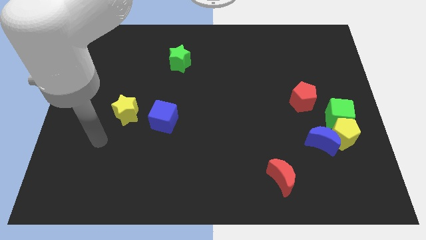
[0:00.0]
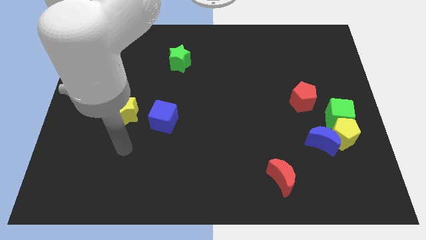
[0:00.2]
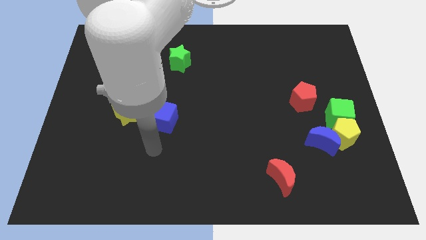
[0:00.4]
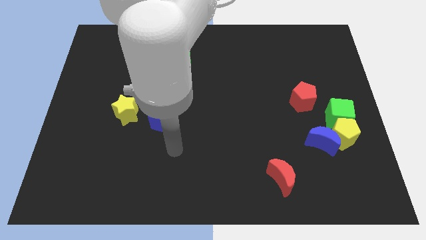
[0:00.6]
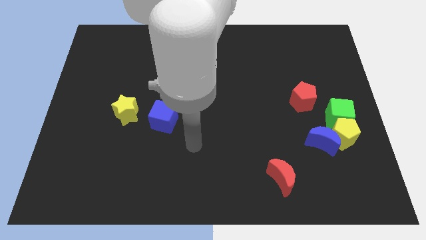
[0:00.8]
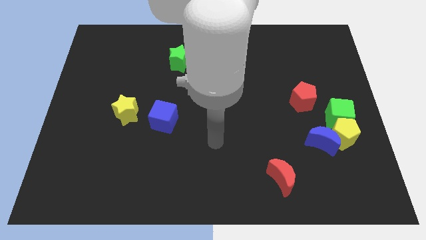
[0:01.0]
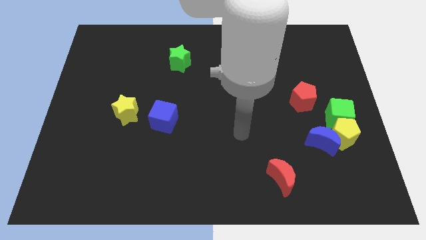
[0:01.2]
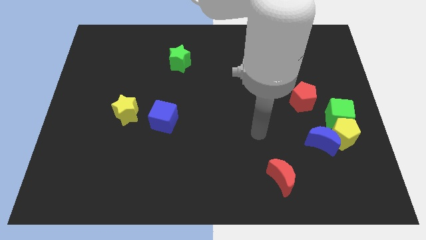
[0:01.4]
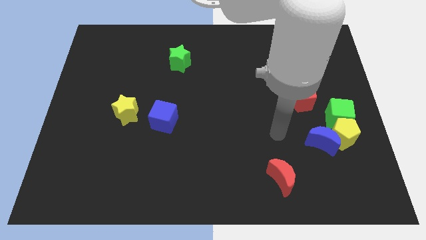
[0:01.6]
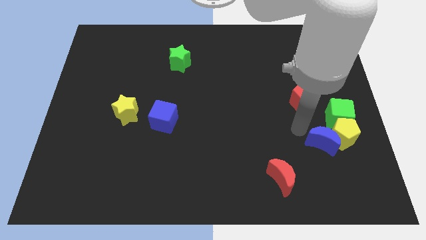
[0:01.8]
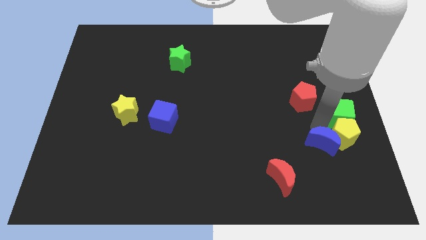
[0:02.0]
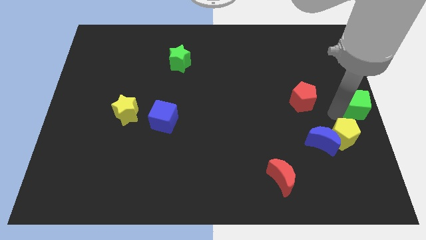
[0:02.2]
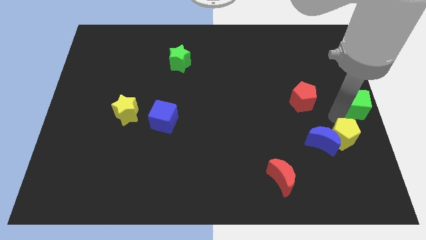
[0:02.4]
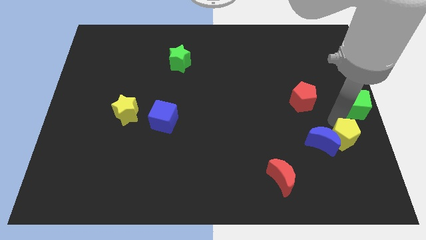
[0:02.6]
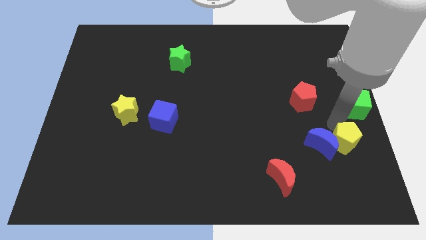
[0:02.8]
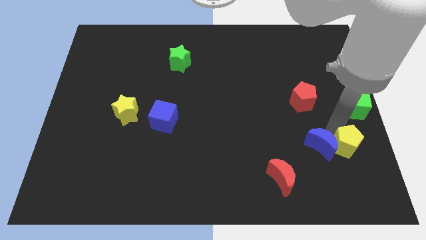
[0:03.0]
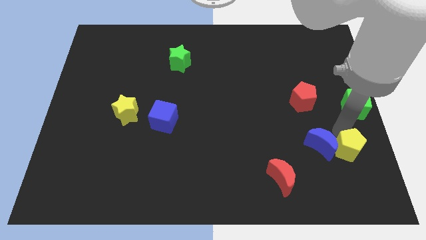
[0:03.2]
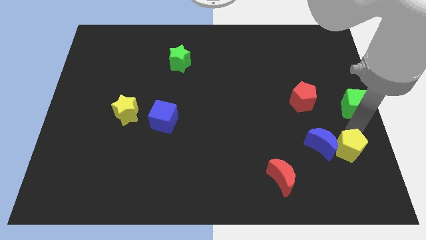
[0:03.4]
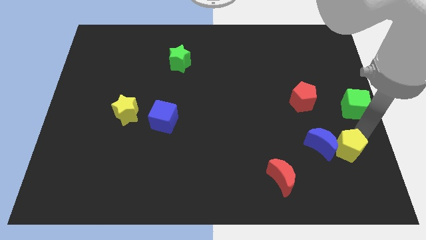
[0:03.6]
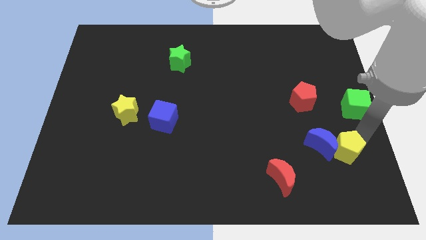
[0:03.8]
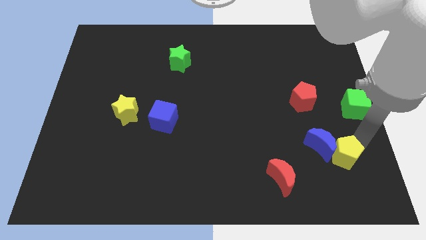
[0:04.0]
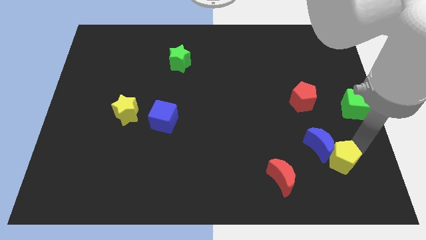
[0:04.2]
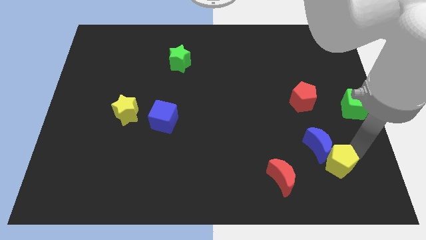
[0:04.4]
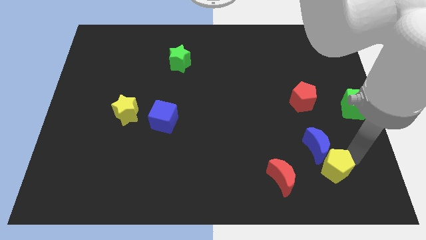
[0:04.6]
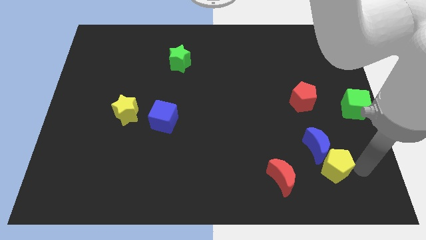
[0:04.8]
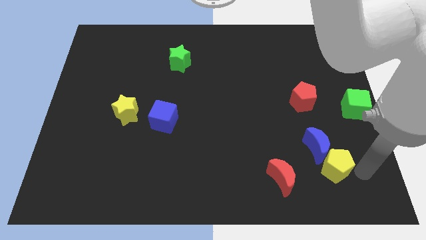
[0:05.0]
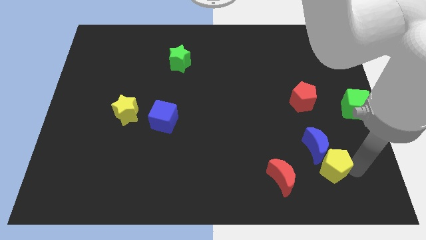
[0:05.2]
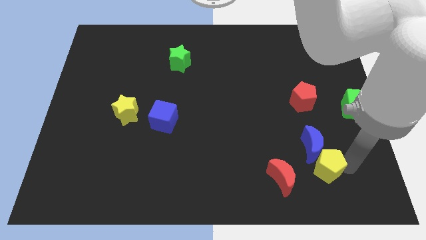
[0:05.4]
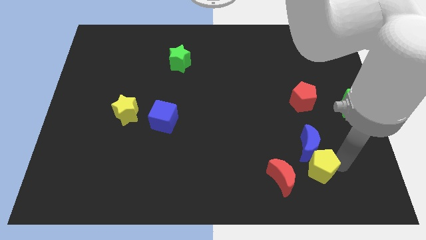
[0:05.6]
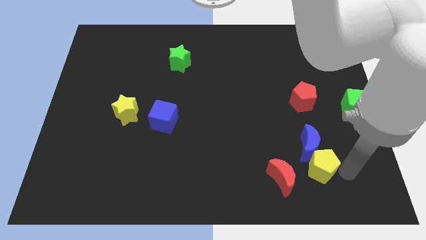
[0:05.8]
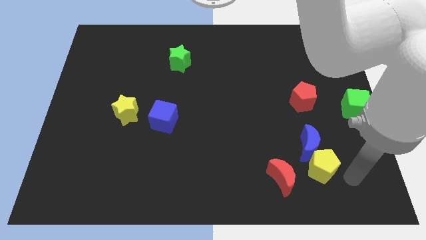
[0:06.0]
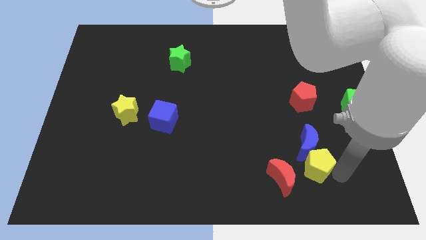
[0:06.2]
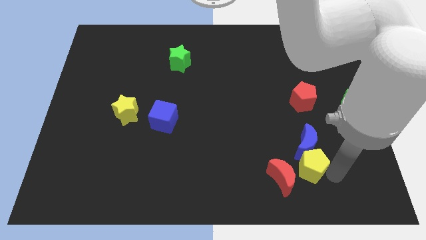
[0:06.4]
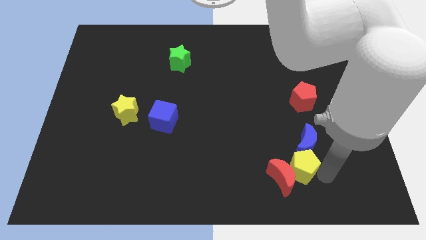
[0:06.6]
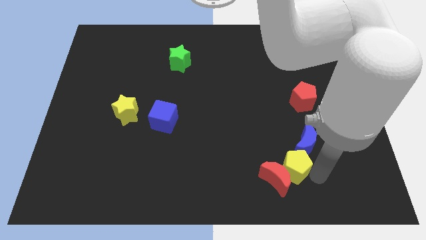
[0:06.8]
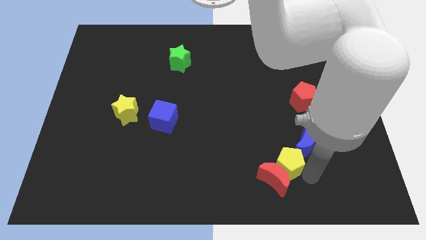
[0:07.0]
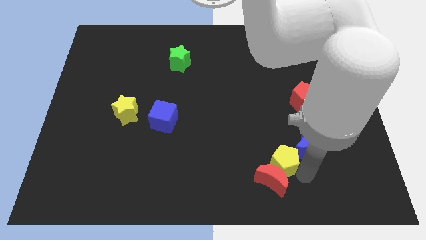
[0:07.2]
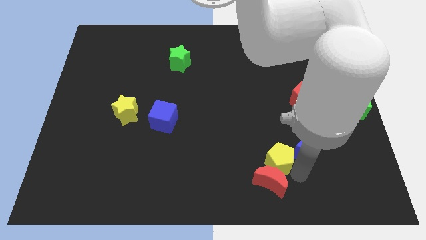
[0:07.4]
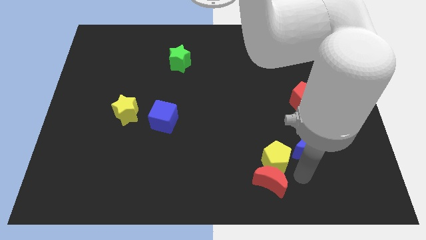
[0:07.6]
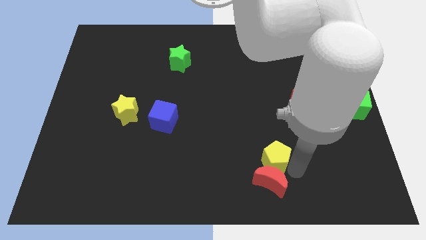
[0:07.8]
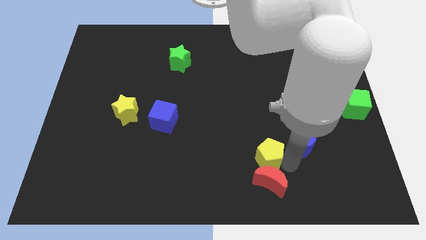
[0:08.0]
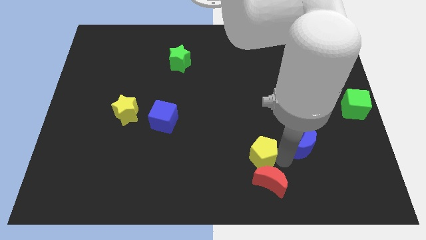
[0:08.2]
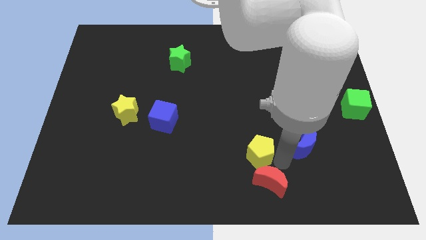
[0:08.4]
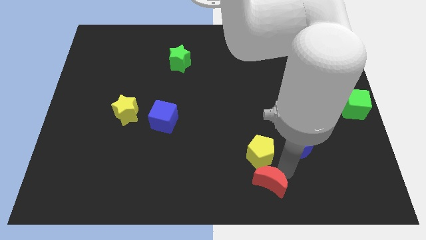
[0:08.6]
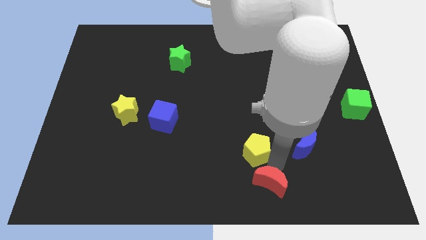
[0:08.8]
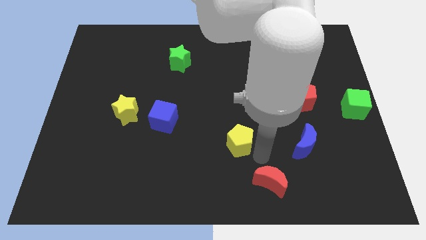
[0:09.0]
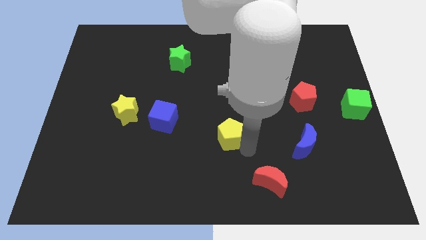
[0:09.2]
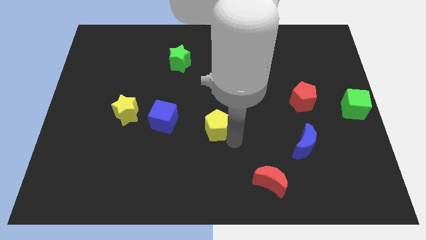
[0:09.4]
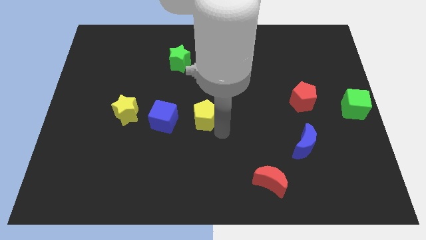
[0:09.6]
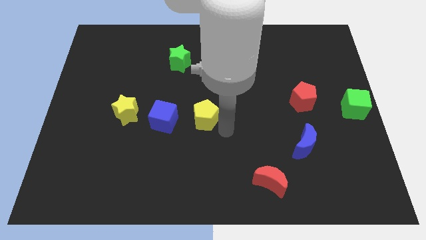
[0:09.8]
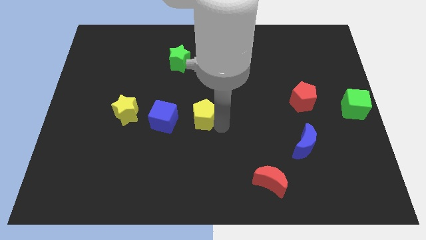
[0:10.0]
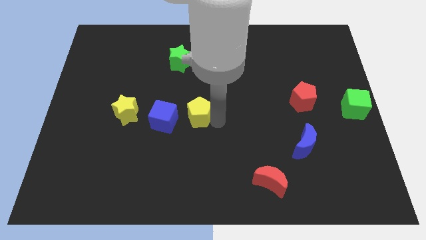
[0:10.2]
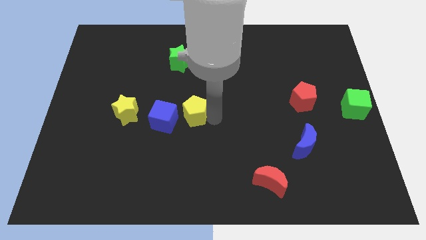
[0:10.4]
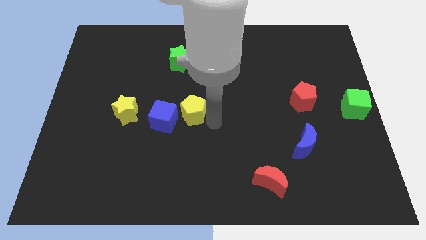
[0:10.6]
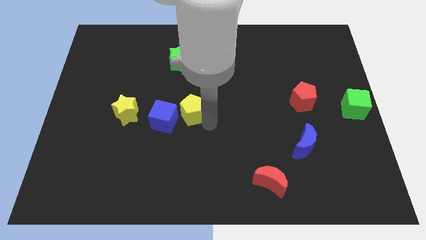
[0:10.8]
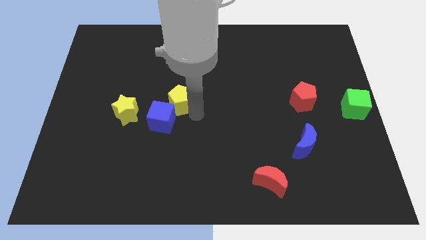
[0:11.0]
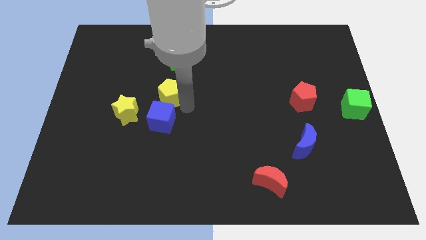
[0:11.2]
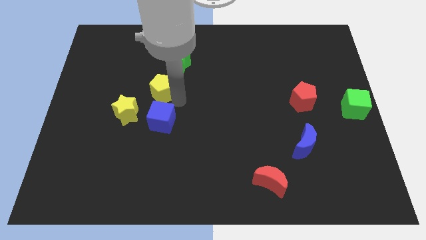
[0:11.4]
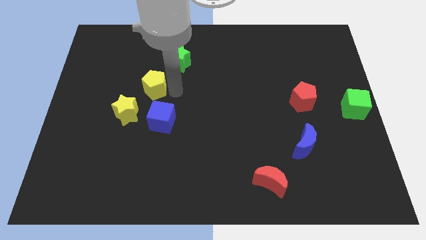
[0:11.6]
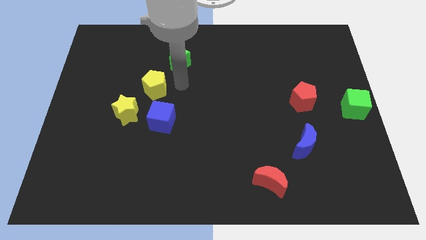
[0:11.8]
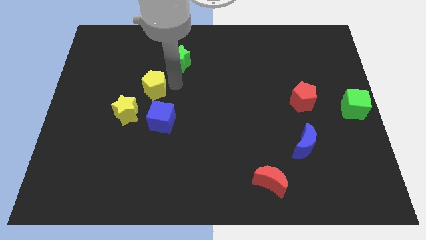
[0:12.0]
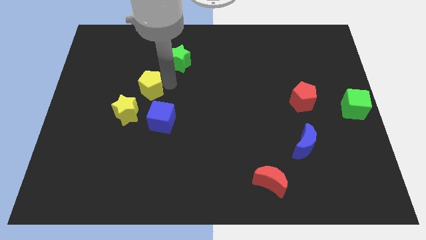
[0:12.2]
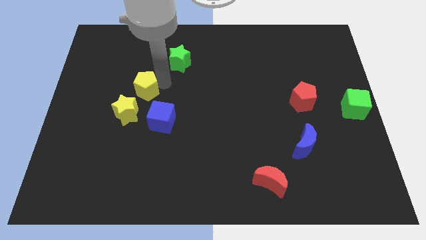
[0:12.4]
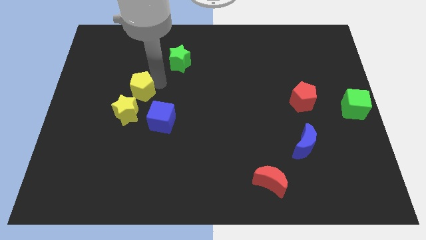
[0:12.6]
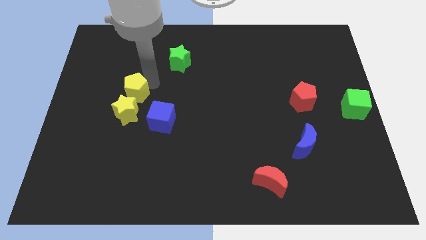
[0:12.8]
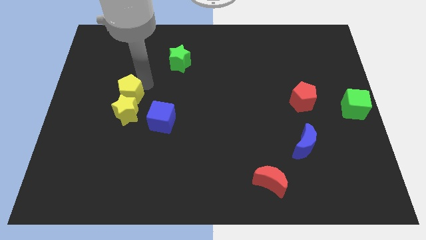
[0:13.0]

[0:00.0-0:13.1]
push the yellow pentagon to the top left side of the yellow star
